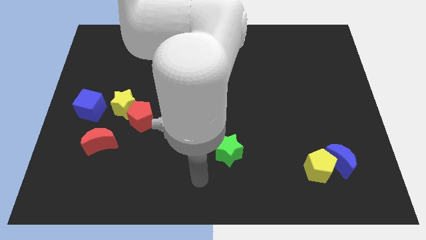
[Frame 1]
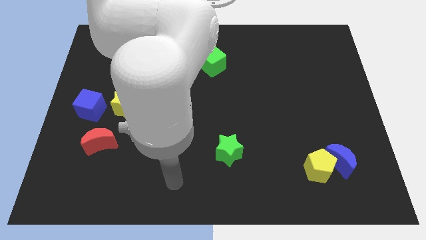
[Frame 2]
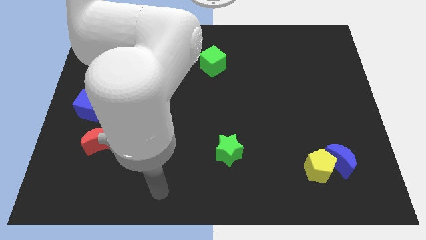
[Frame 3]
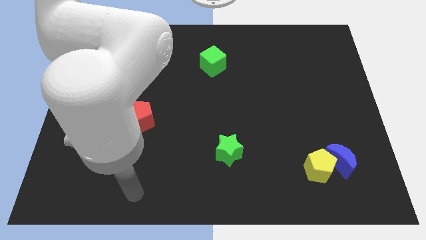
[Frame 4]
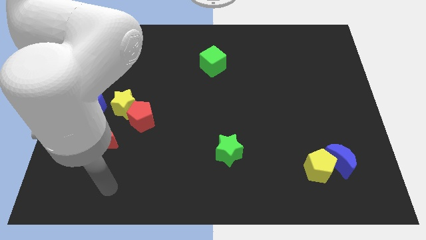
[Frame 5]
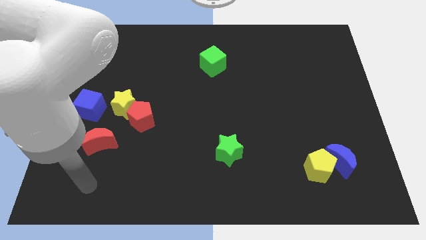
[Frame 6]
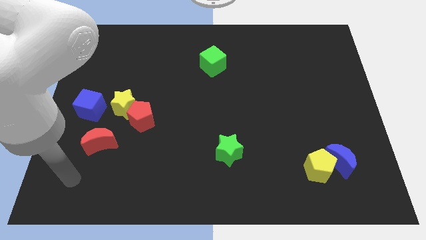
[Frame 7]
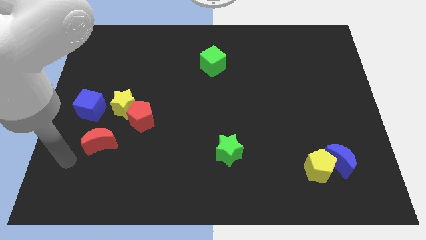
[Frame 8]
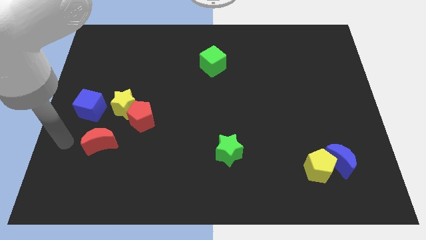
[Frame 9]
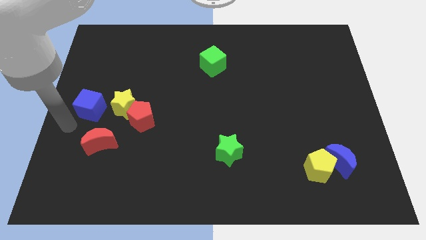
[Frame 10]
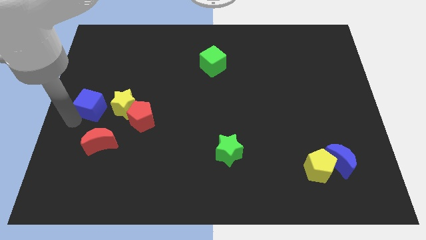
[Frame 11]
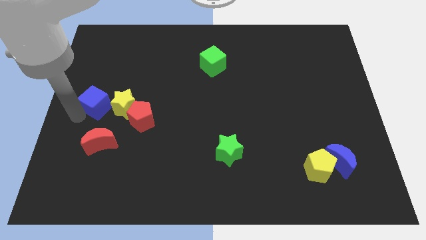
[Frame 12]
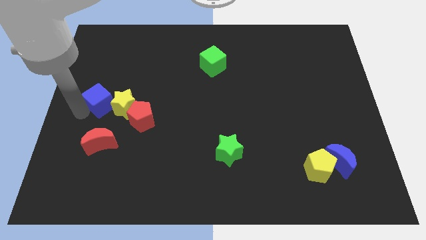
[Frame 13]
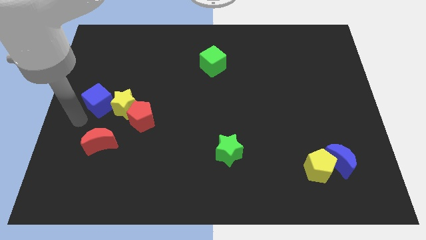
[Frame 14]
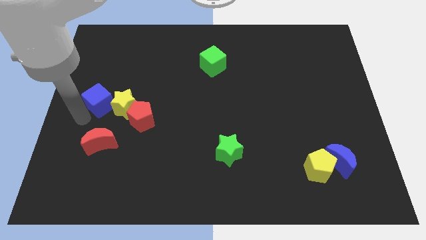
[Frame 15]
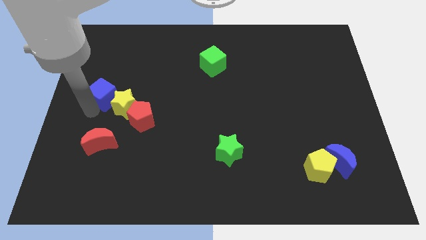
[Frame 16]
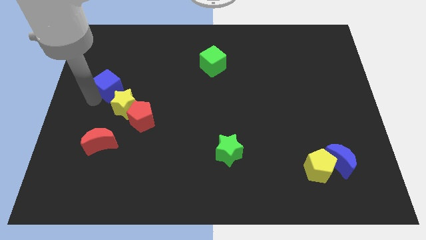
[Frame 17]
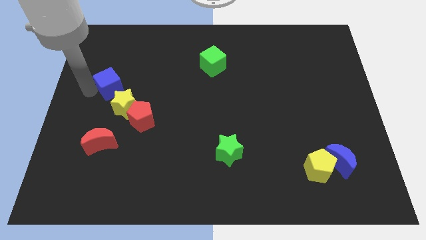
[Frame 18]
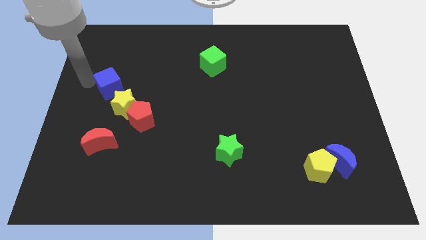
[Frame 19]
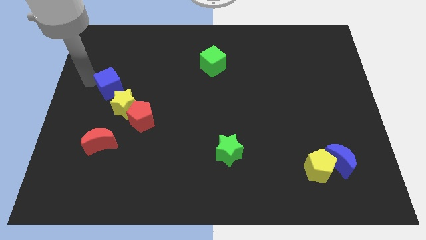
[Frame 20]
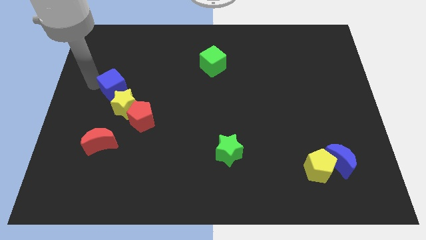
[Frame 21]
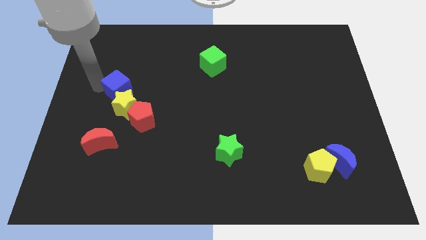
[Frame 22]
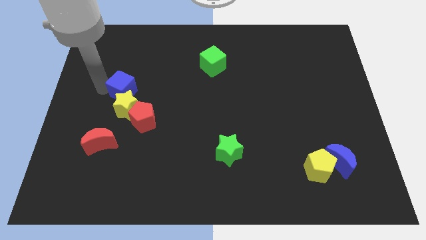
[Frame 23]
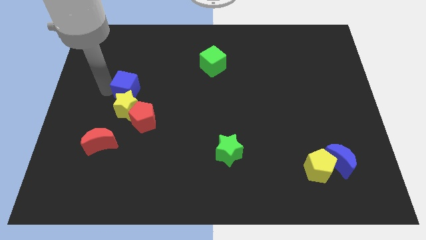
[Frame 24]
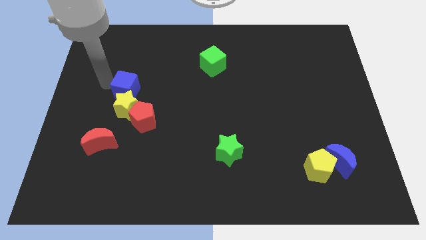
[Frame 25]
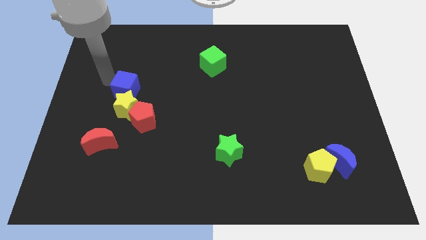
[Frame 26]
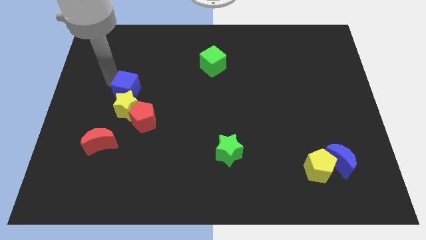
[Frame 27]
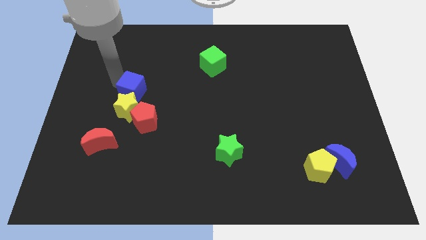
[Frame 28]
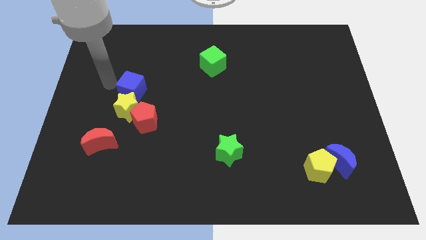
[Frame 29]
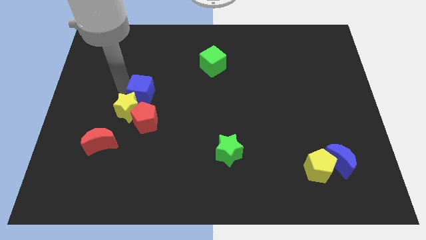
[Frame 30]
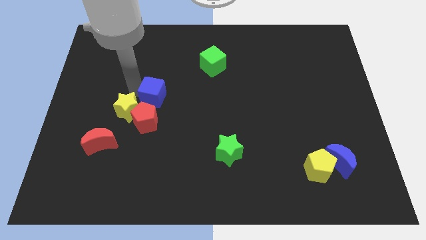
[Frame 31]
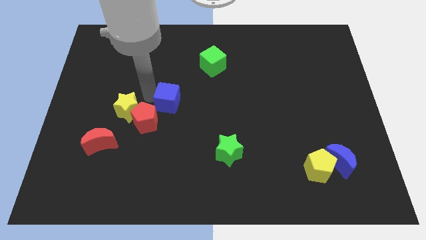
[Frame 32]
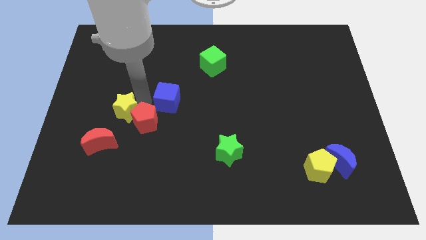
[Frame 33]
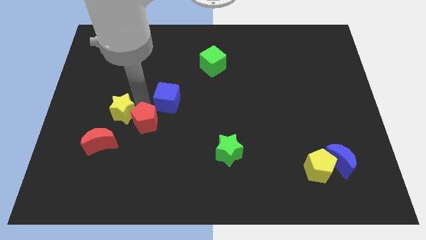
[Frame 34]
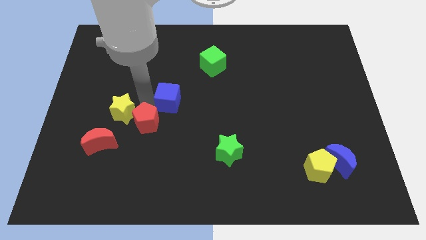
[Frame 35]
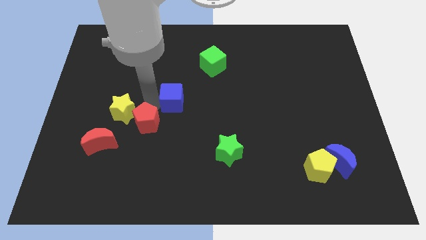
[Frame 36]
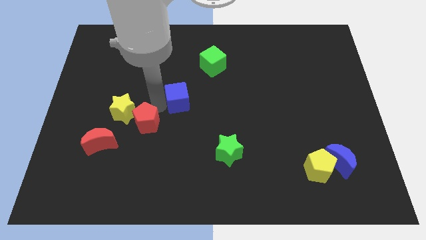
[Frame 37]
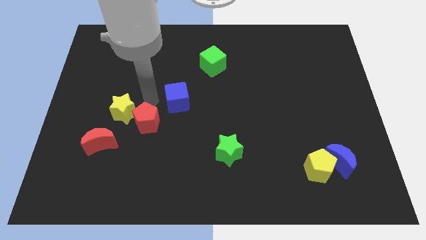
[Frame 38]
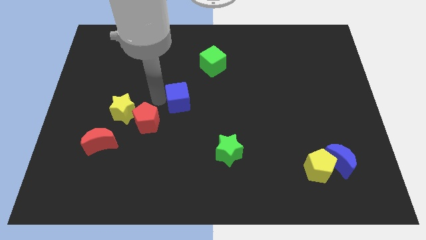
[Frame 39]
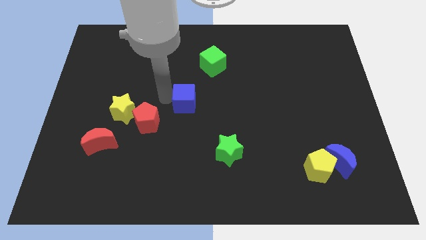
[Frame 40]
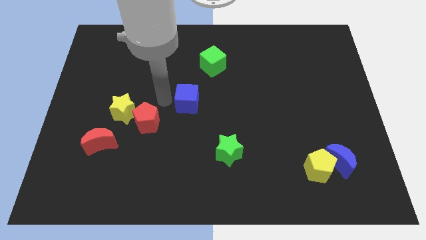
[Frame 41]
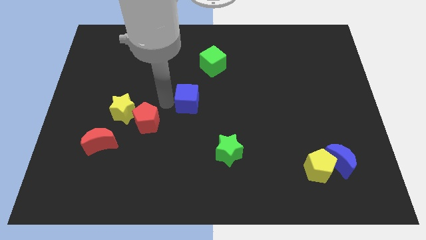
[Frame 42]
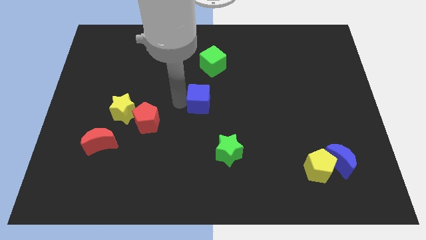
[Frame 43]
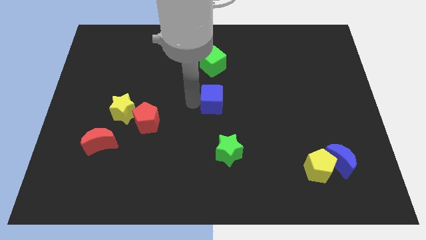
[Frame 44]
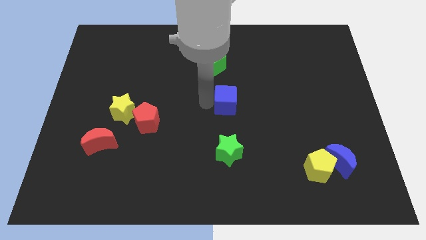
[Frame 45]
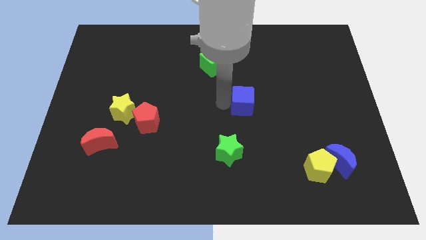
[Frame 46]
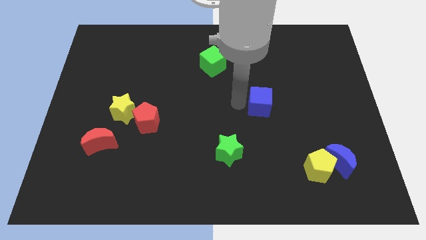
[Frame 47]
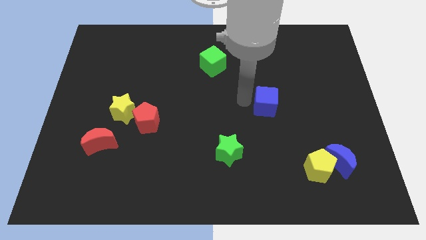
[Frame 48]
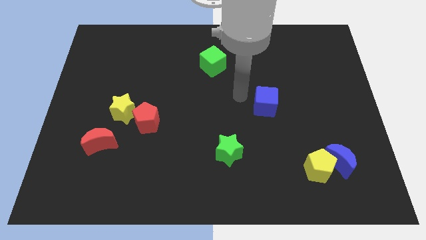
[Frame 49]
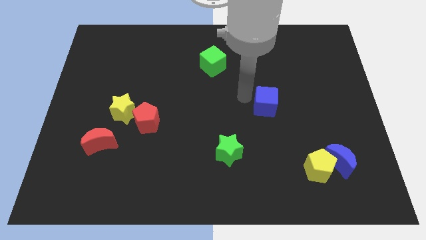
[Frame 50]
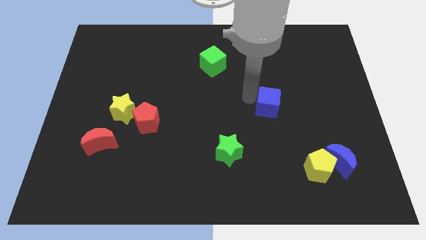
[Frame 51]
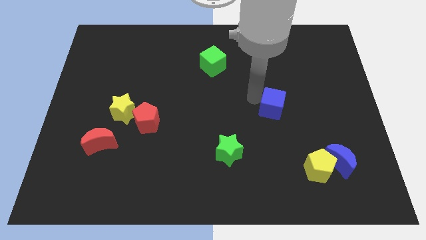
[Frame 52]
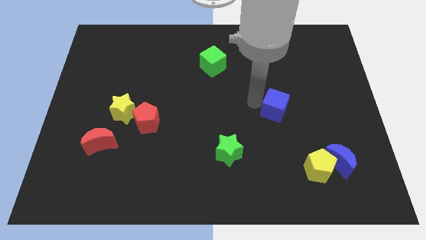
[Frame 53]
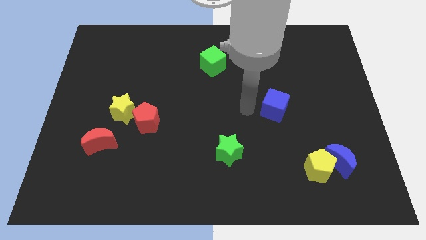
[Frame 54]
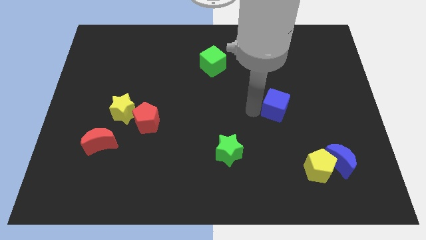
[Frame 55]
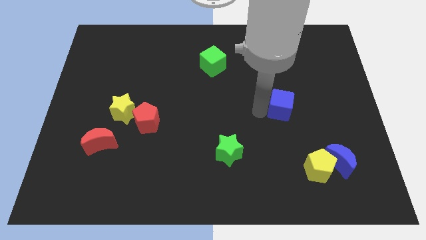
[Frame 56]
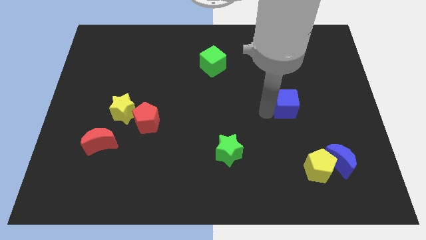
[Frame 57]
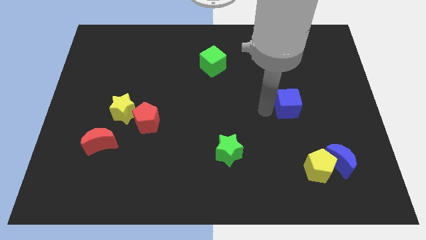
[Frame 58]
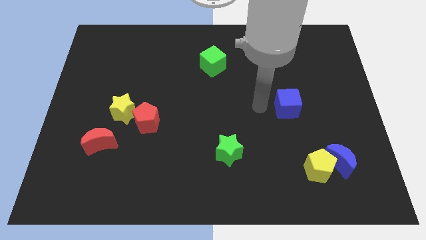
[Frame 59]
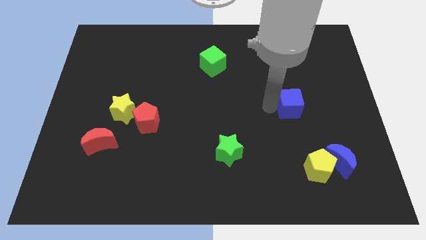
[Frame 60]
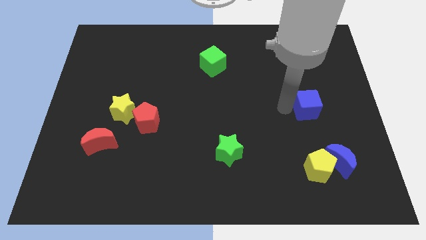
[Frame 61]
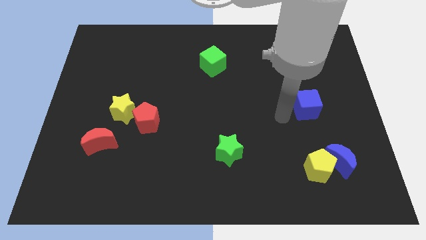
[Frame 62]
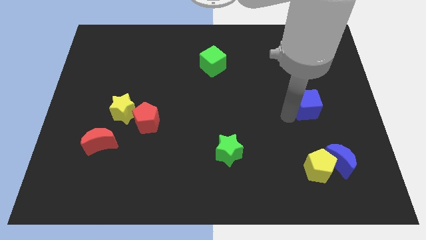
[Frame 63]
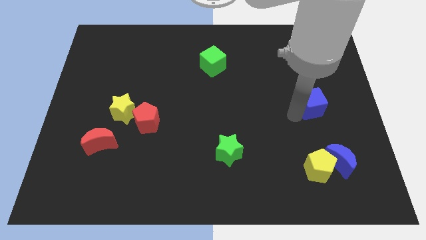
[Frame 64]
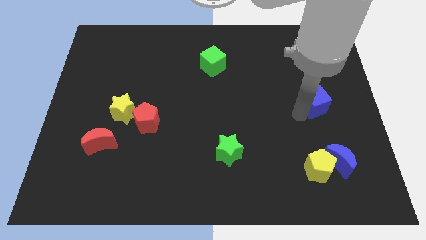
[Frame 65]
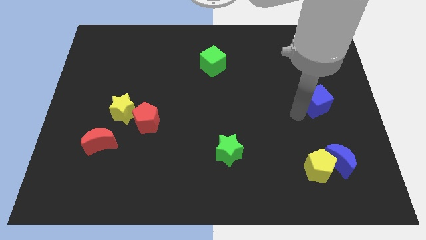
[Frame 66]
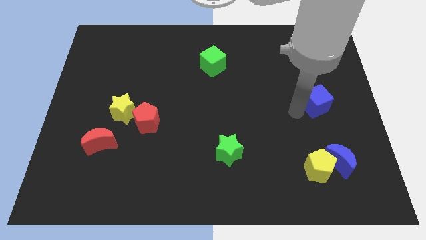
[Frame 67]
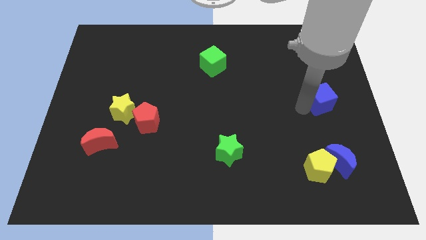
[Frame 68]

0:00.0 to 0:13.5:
move the blue cube to the right side
